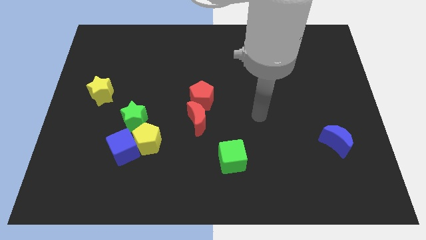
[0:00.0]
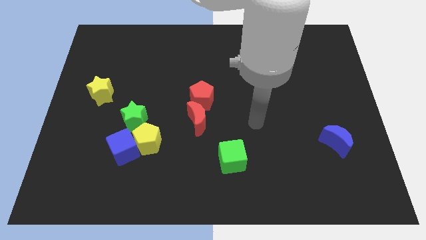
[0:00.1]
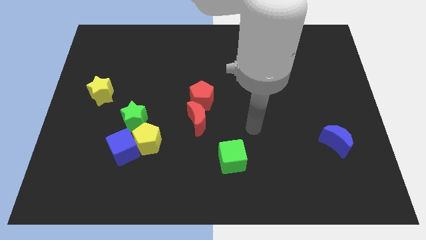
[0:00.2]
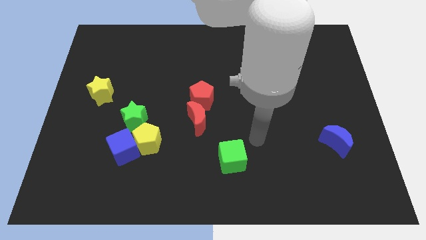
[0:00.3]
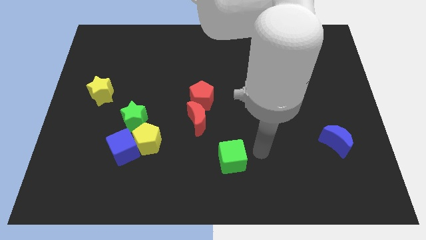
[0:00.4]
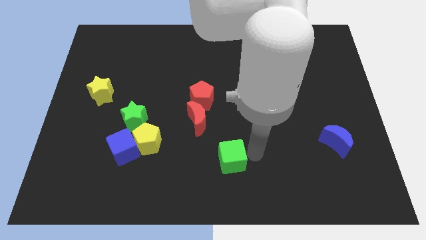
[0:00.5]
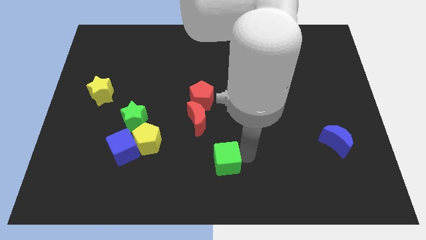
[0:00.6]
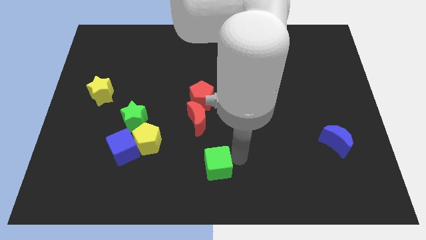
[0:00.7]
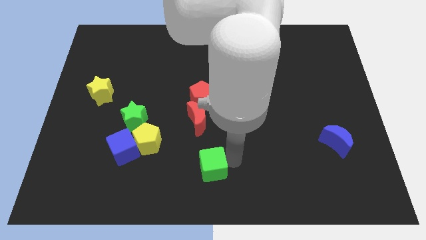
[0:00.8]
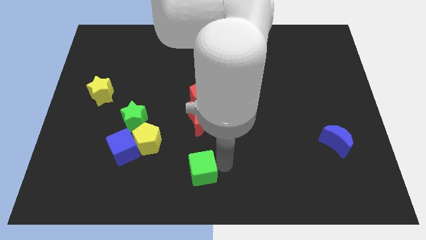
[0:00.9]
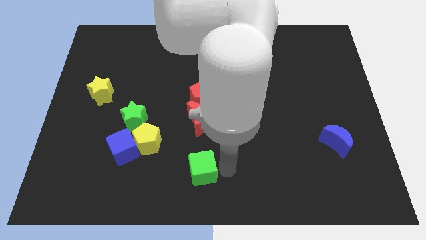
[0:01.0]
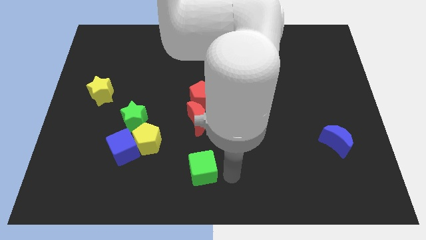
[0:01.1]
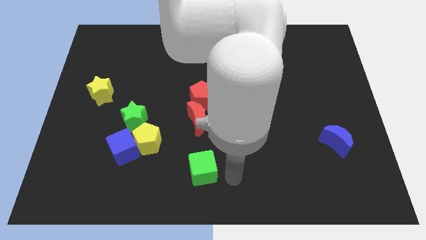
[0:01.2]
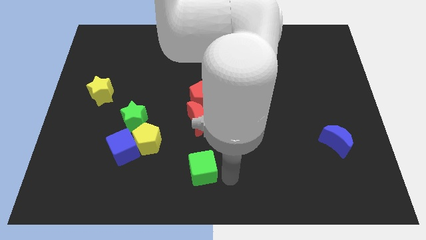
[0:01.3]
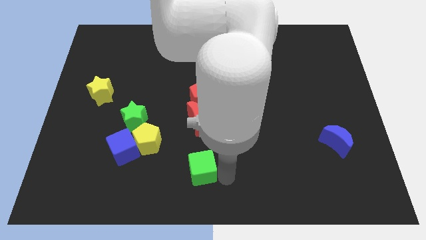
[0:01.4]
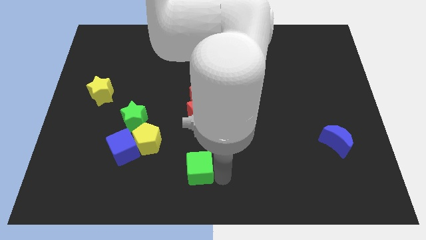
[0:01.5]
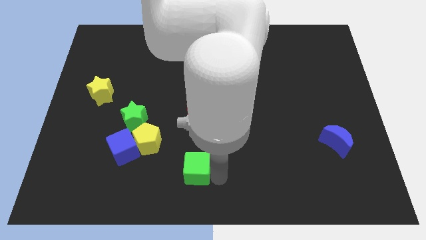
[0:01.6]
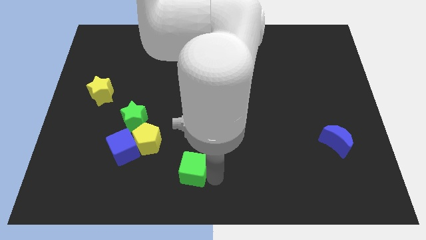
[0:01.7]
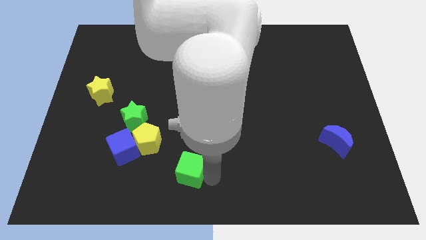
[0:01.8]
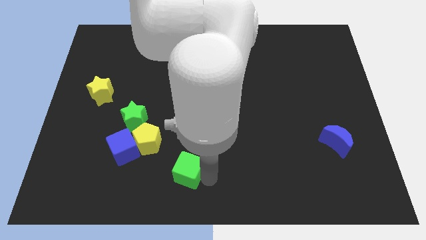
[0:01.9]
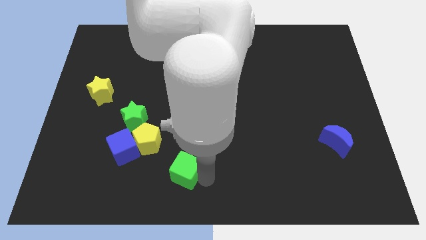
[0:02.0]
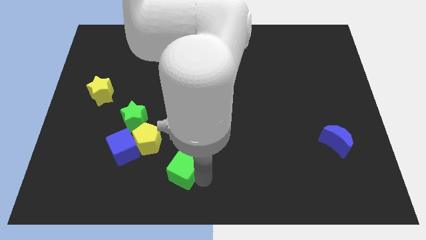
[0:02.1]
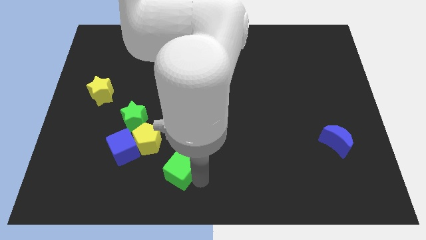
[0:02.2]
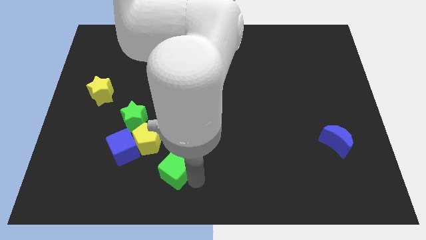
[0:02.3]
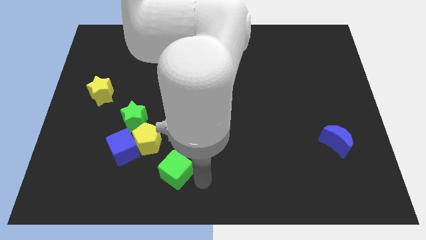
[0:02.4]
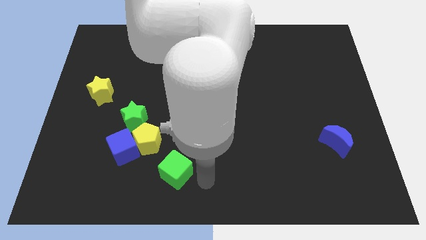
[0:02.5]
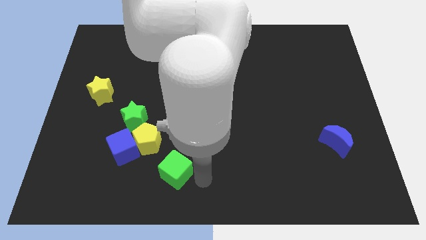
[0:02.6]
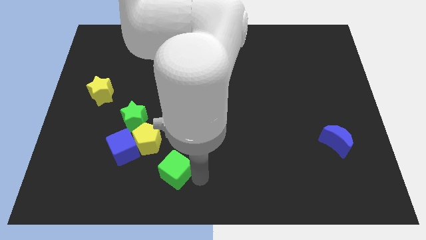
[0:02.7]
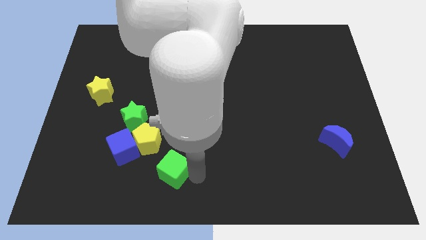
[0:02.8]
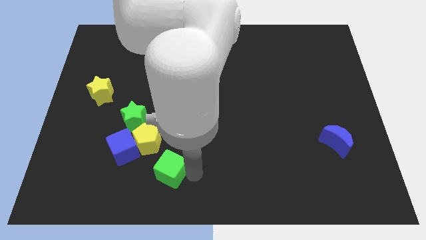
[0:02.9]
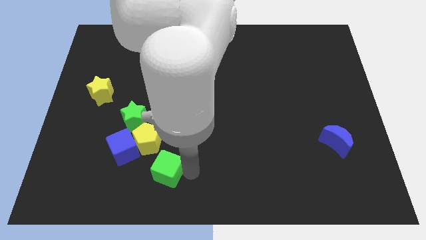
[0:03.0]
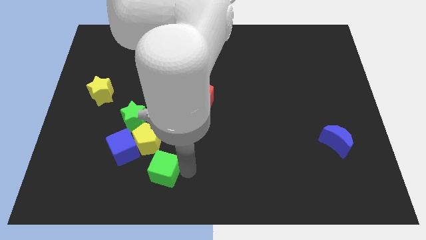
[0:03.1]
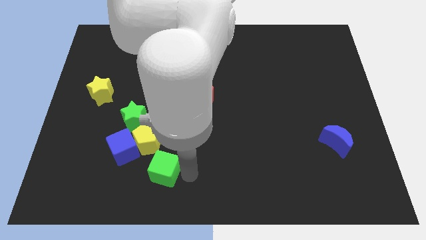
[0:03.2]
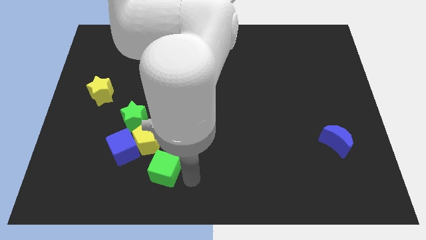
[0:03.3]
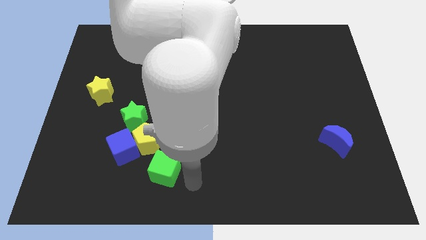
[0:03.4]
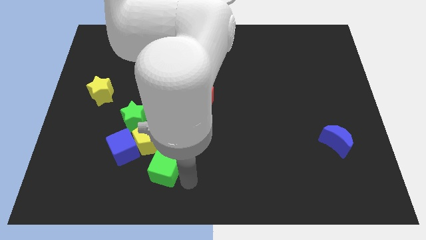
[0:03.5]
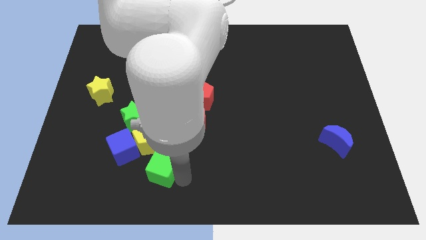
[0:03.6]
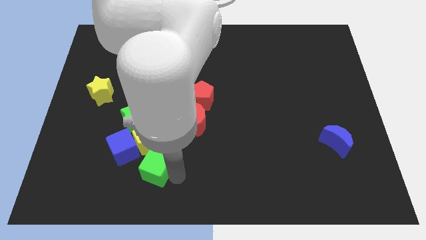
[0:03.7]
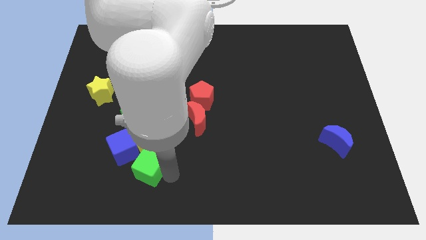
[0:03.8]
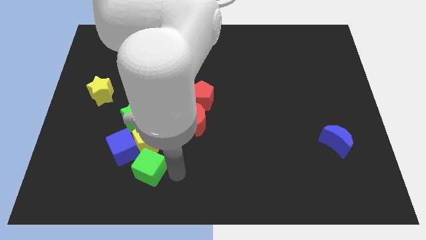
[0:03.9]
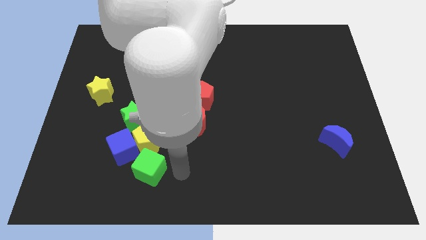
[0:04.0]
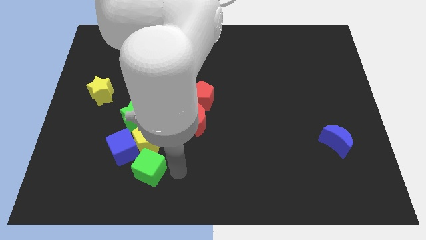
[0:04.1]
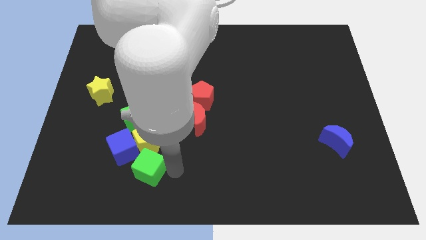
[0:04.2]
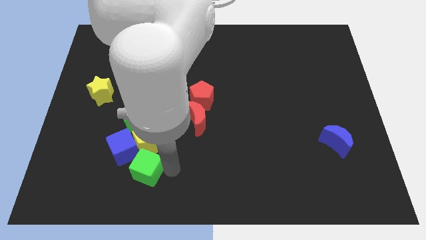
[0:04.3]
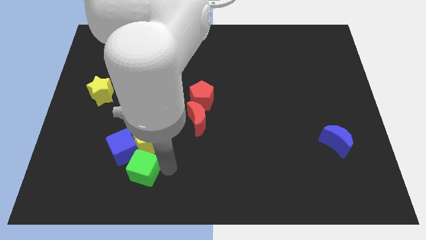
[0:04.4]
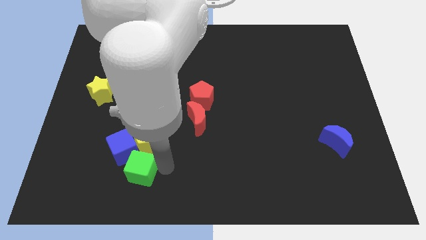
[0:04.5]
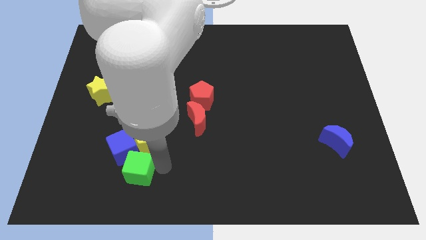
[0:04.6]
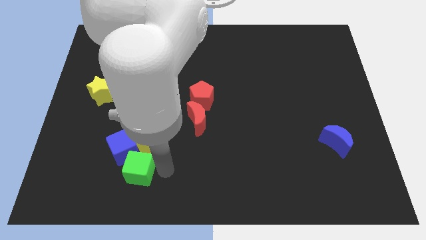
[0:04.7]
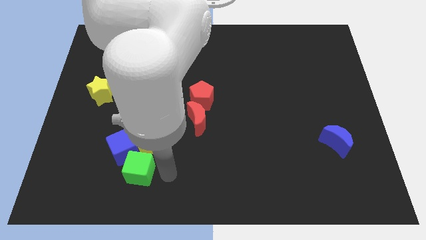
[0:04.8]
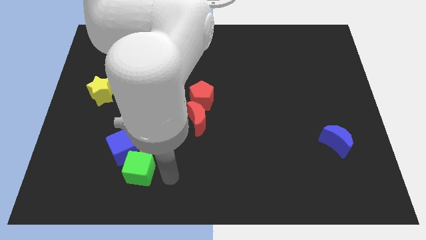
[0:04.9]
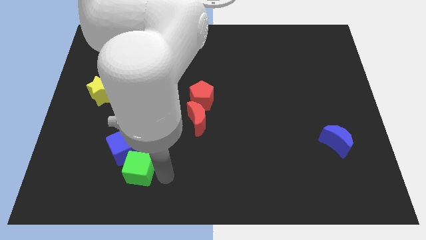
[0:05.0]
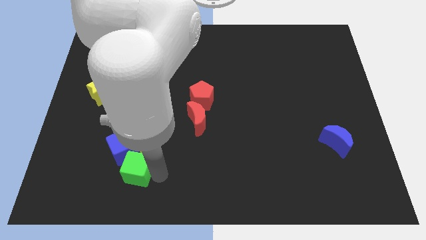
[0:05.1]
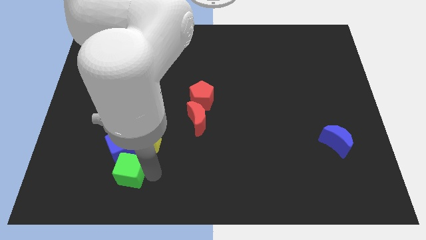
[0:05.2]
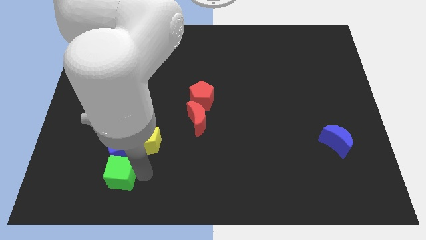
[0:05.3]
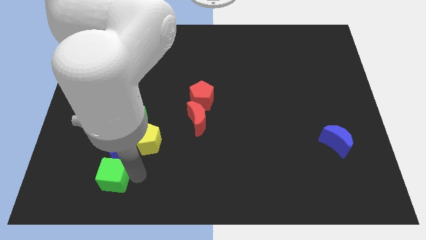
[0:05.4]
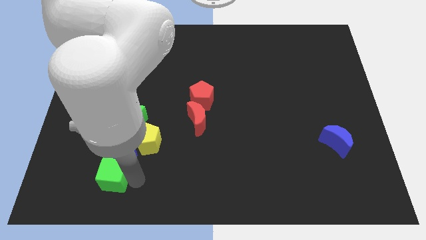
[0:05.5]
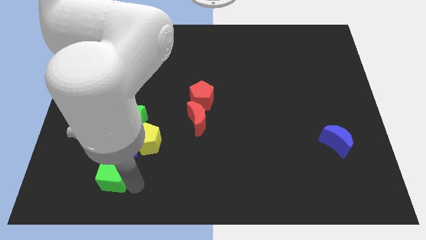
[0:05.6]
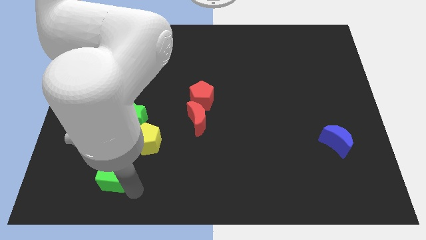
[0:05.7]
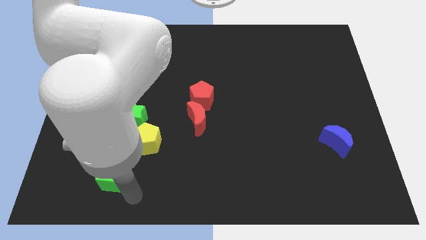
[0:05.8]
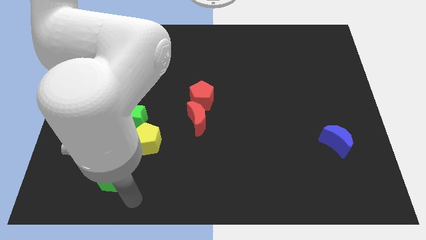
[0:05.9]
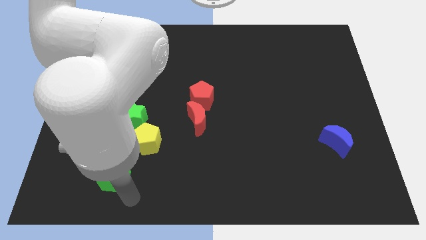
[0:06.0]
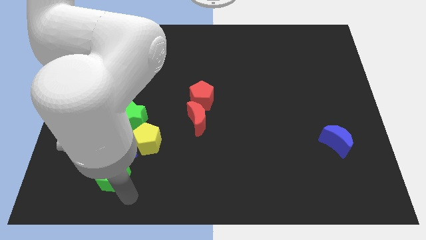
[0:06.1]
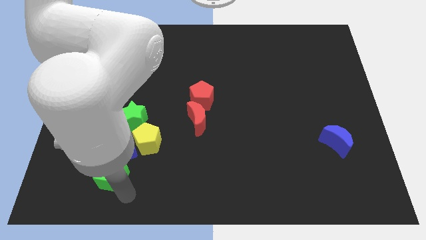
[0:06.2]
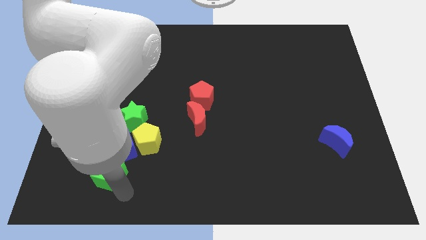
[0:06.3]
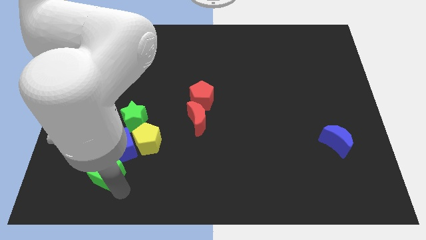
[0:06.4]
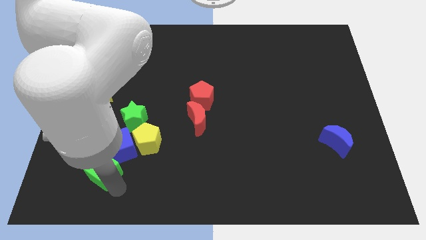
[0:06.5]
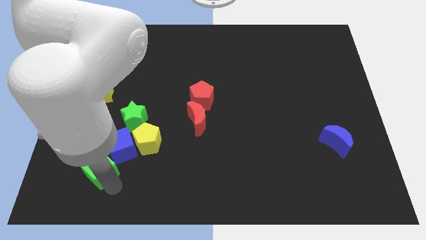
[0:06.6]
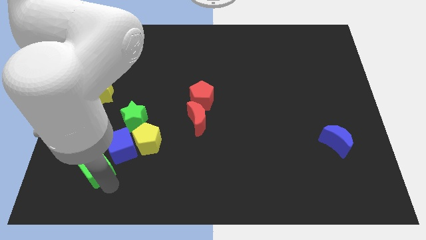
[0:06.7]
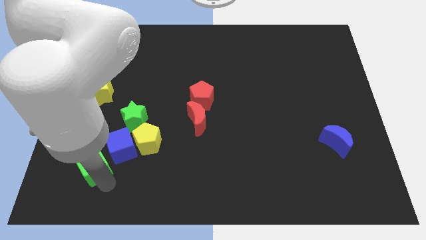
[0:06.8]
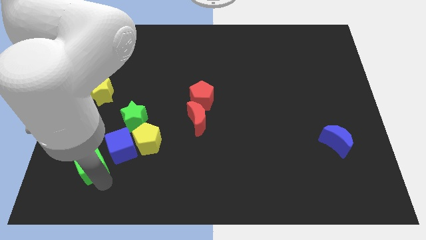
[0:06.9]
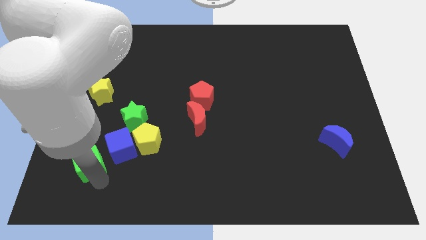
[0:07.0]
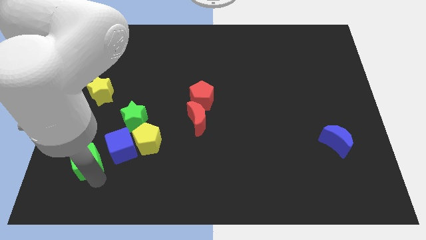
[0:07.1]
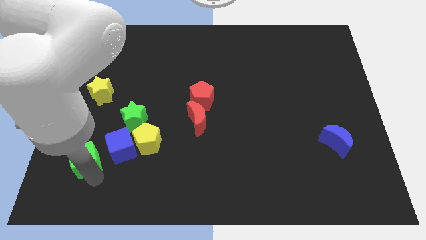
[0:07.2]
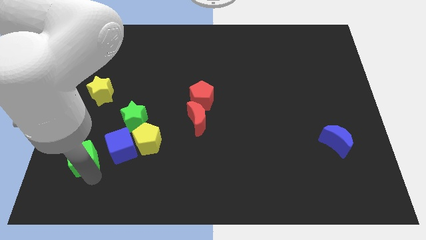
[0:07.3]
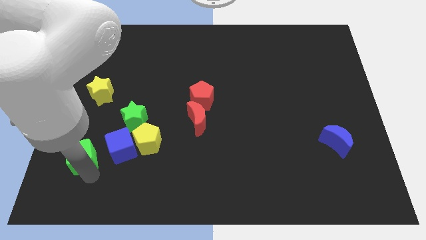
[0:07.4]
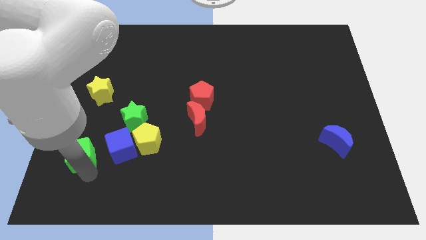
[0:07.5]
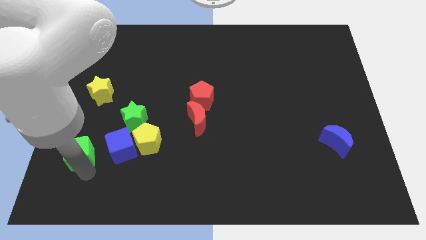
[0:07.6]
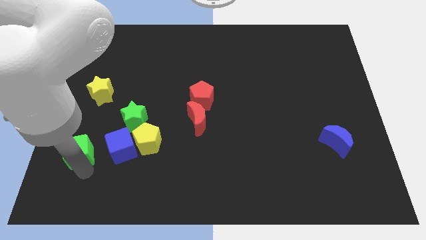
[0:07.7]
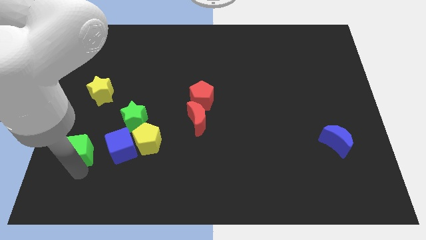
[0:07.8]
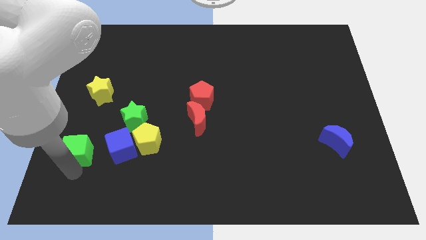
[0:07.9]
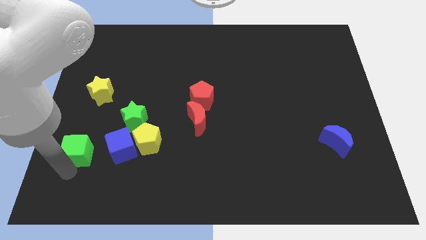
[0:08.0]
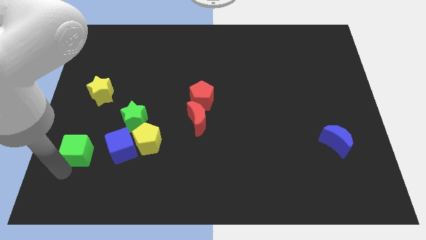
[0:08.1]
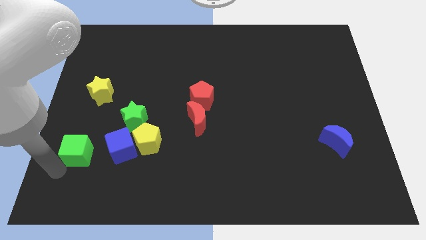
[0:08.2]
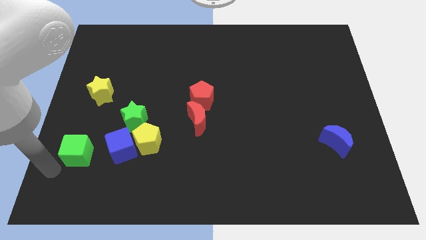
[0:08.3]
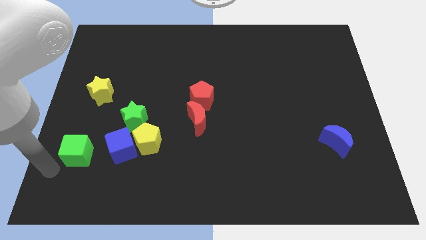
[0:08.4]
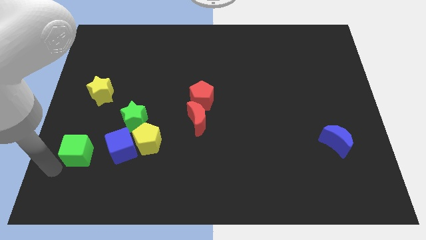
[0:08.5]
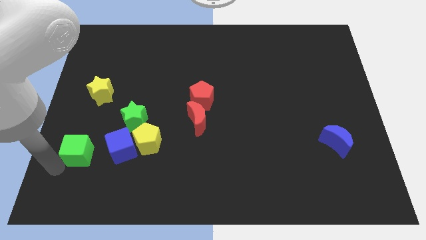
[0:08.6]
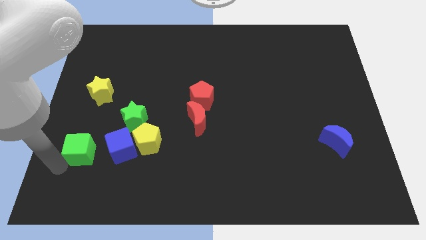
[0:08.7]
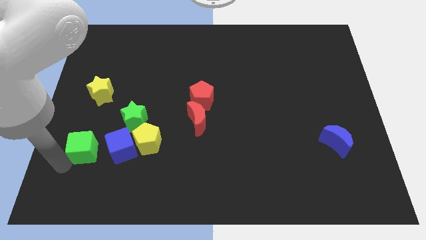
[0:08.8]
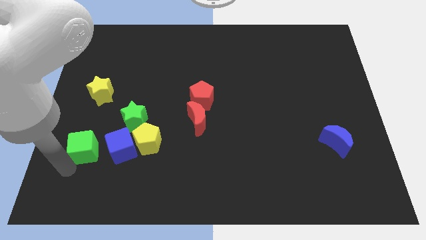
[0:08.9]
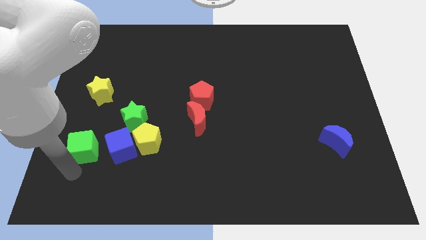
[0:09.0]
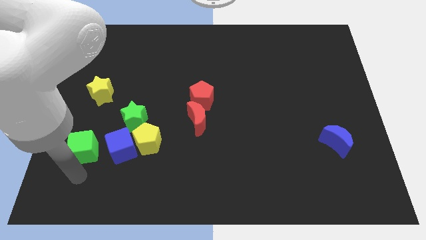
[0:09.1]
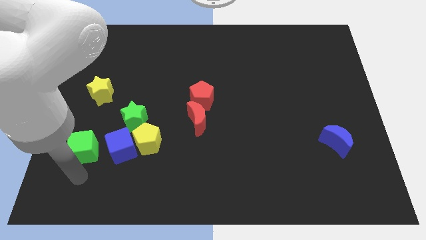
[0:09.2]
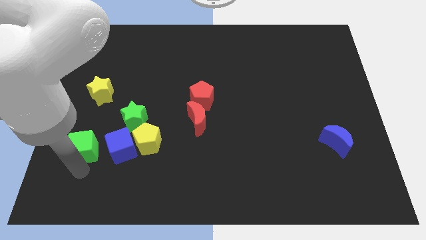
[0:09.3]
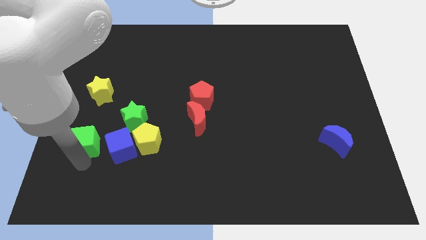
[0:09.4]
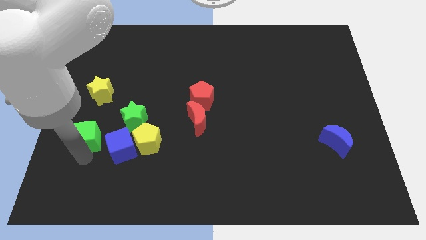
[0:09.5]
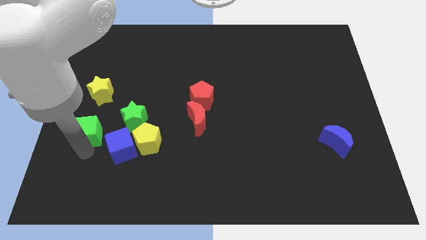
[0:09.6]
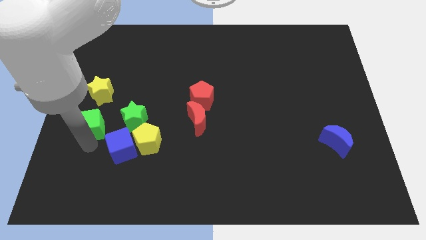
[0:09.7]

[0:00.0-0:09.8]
put the green cube to the left side
